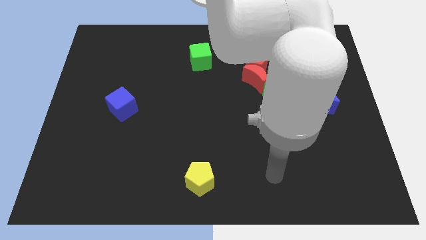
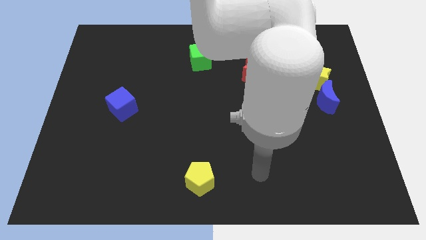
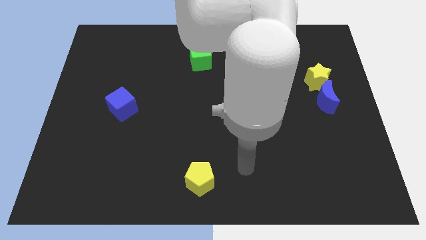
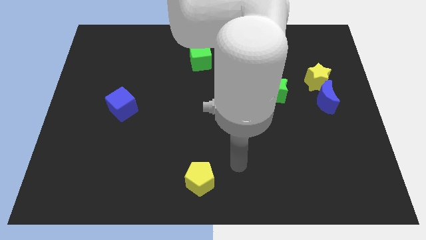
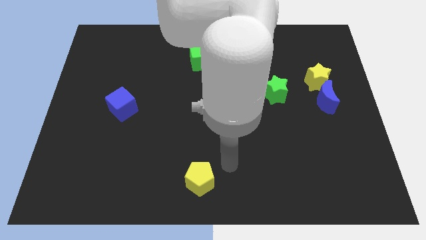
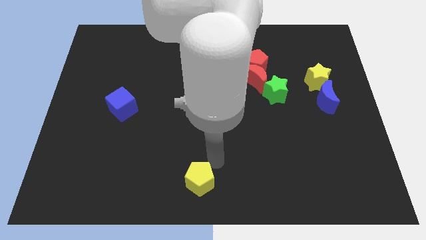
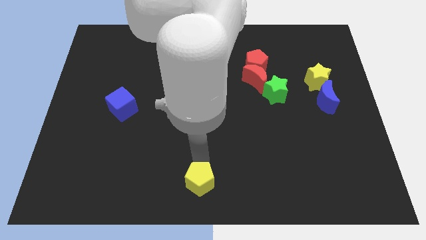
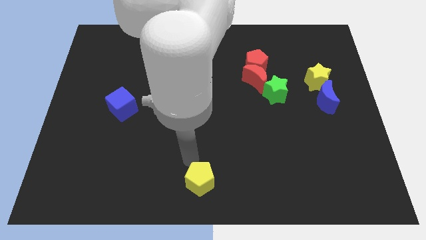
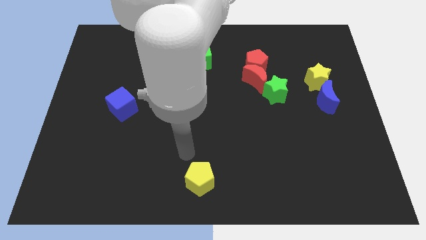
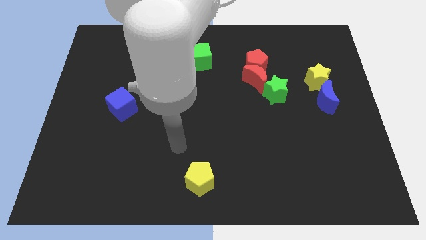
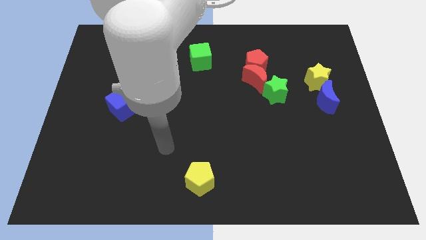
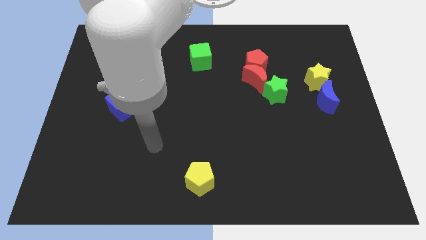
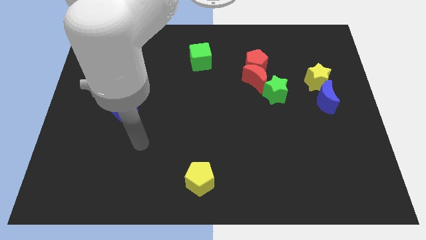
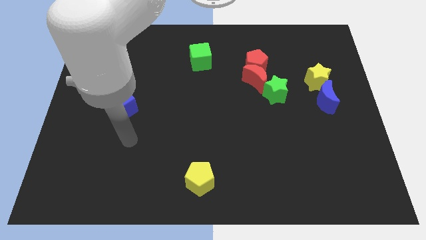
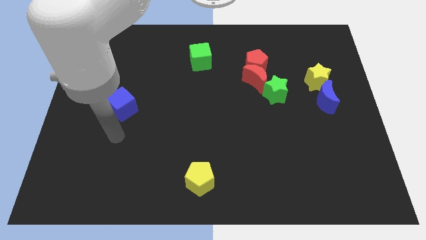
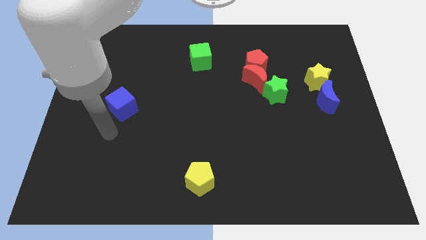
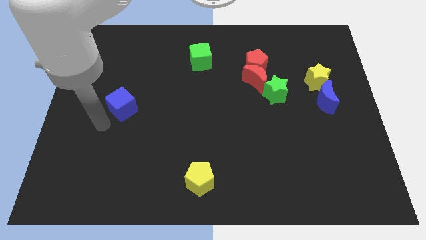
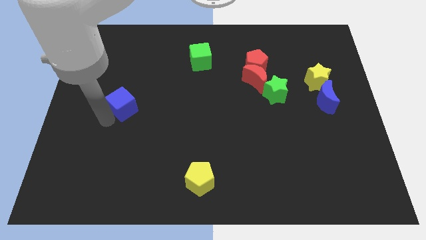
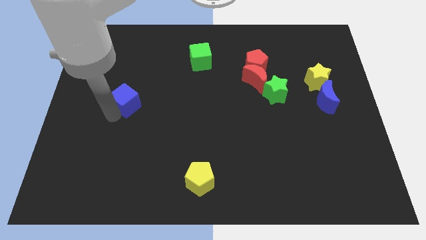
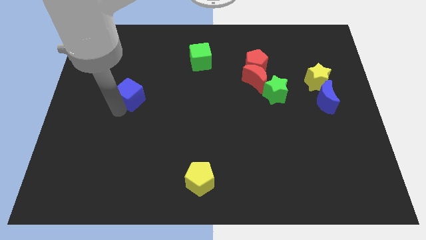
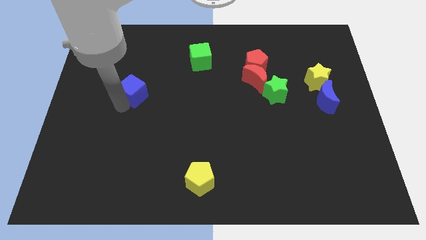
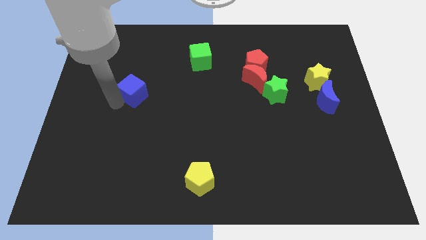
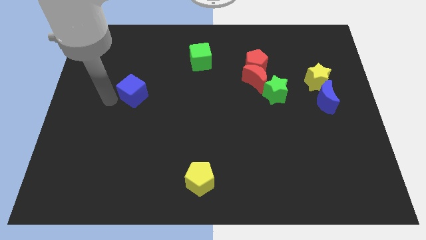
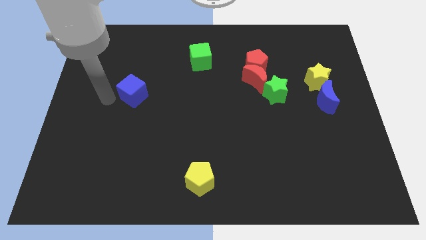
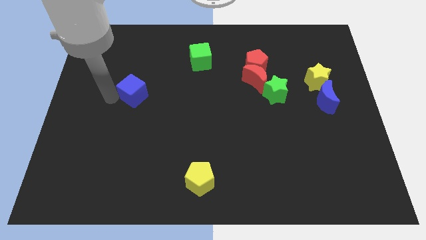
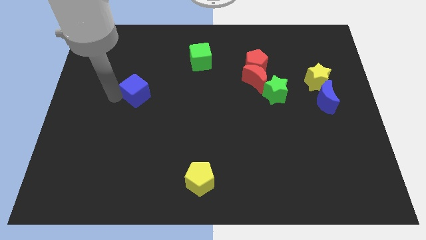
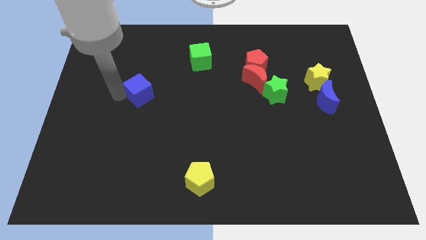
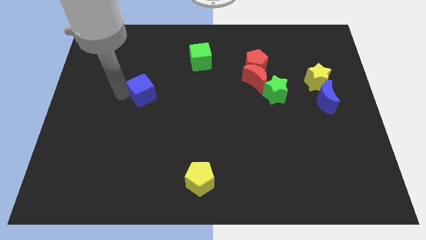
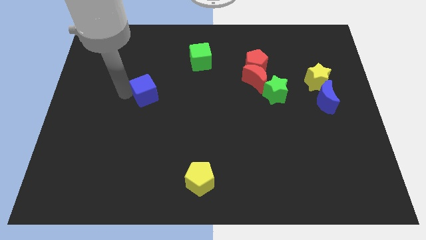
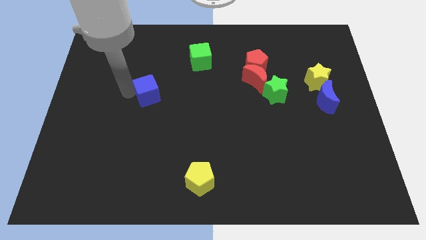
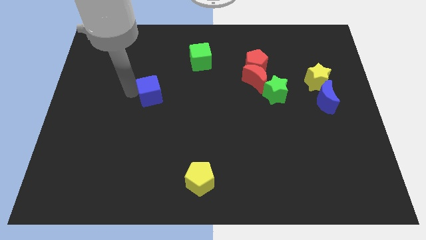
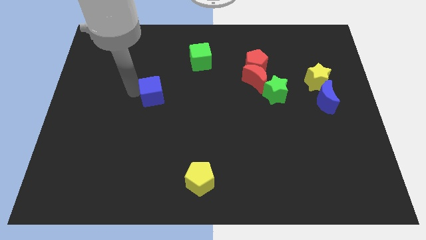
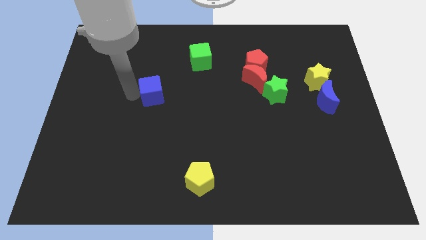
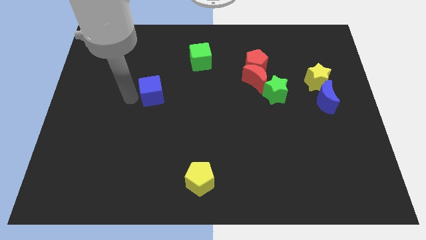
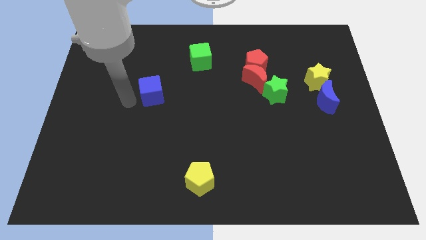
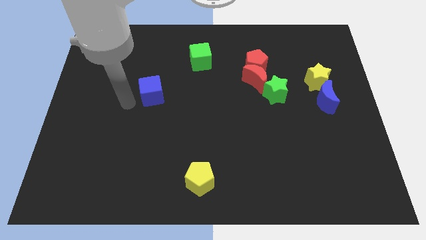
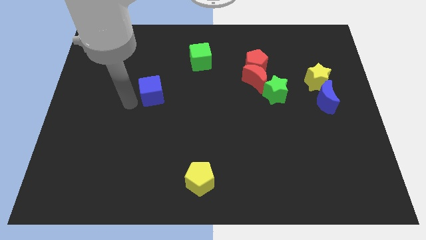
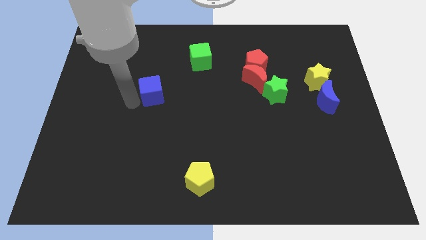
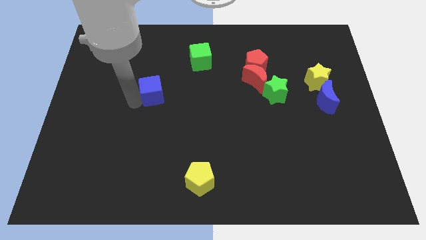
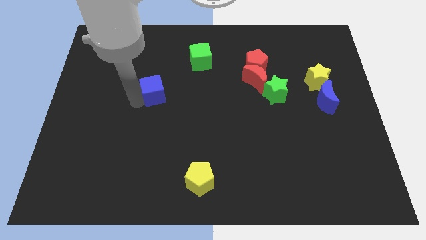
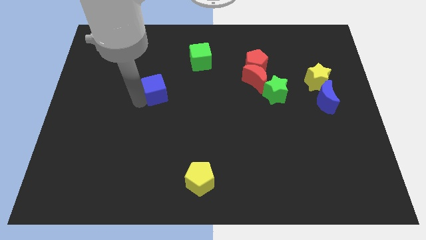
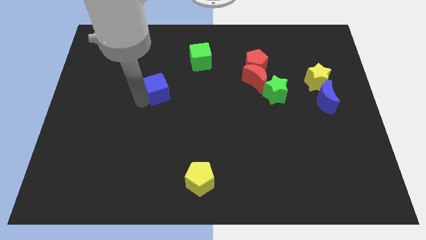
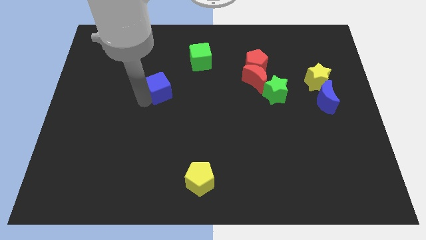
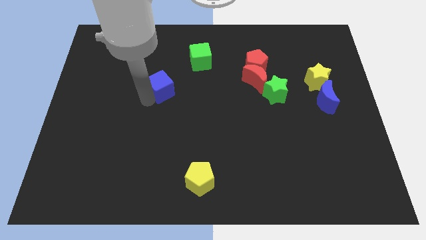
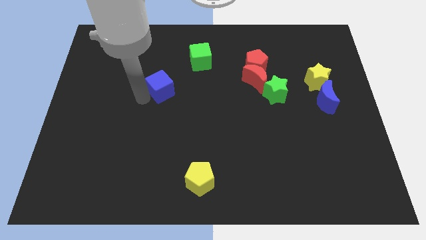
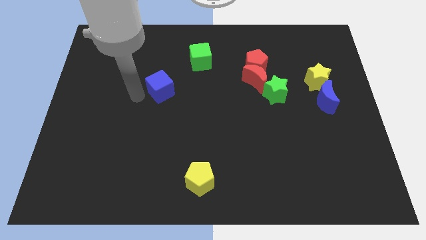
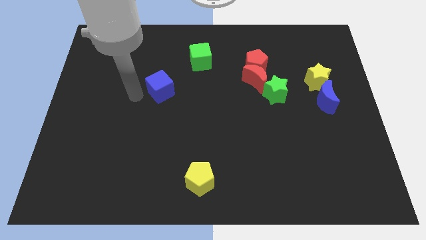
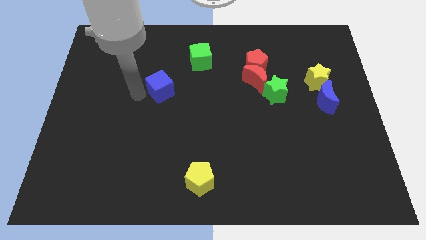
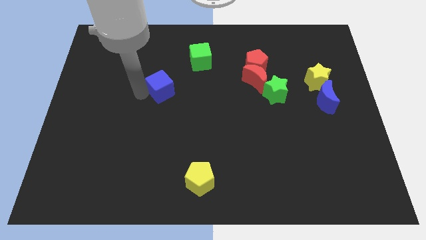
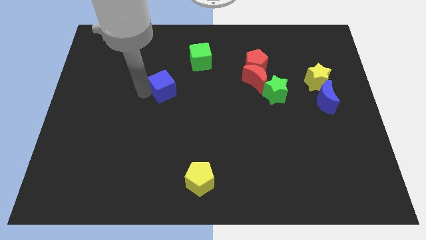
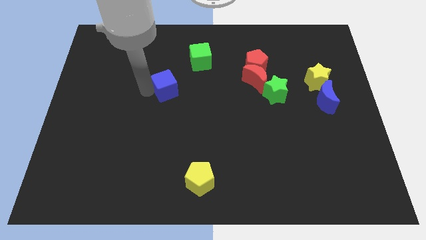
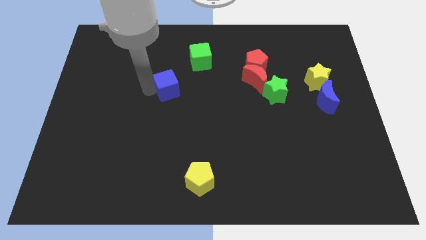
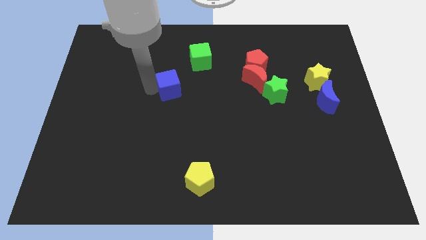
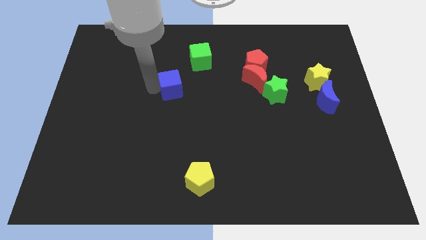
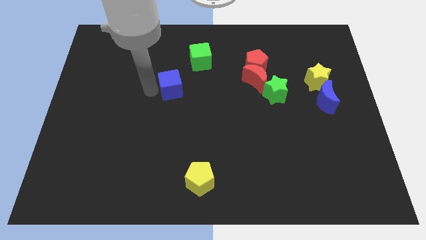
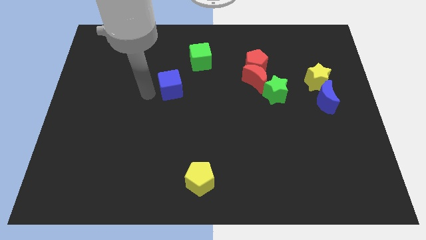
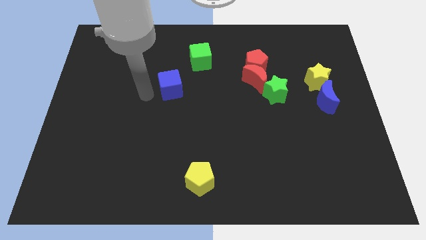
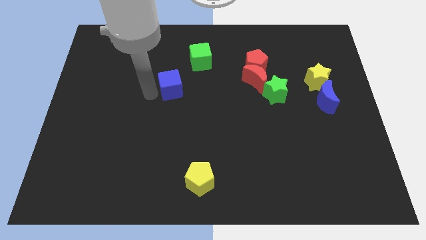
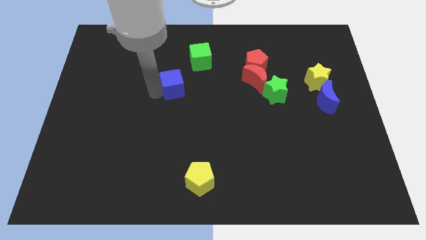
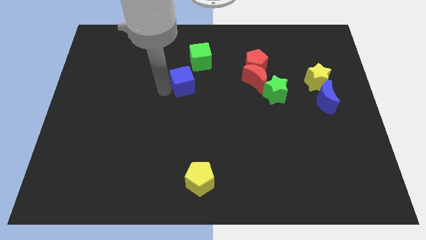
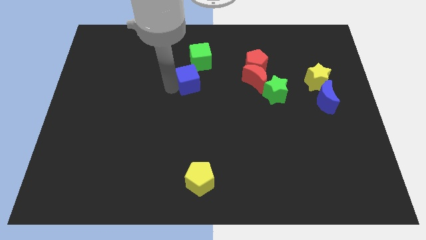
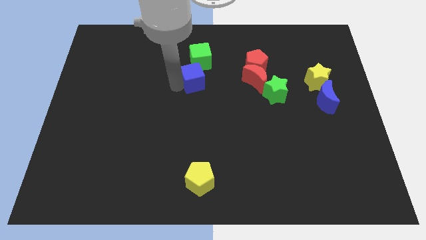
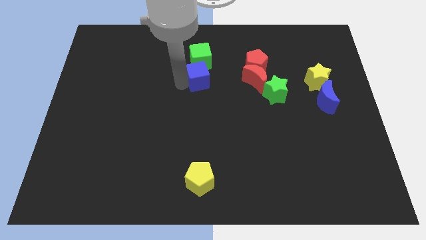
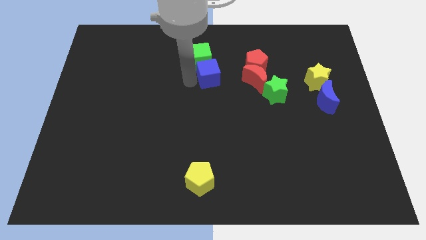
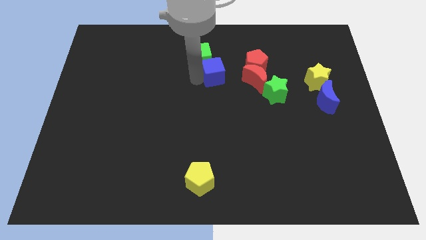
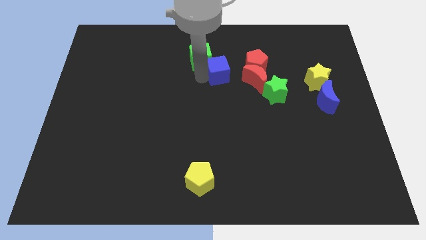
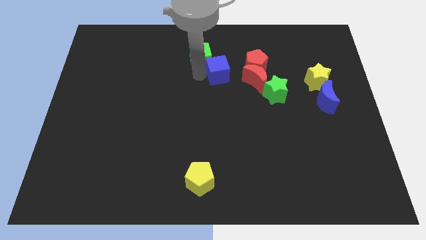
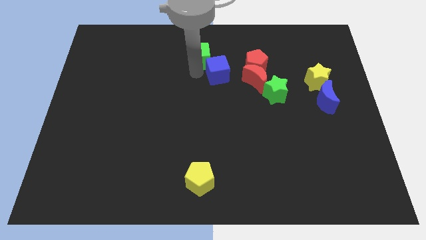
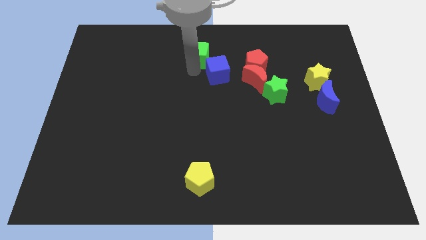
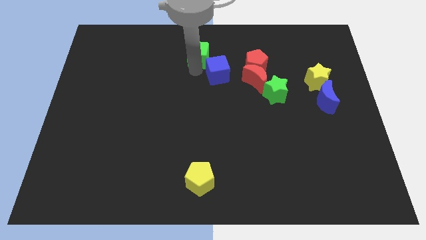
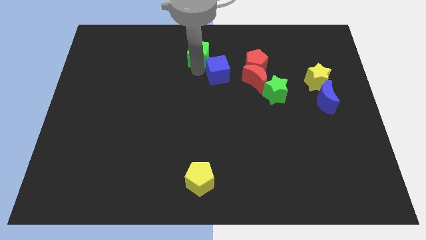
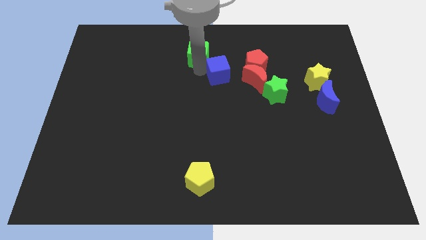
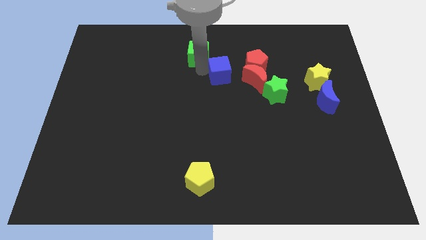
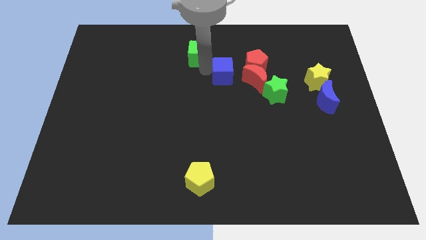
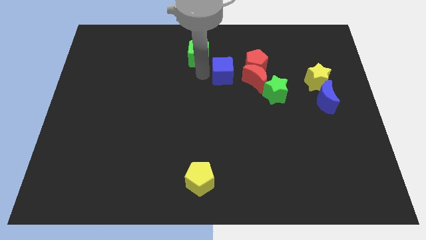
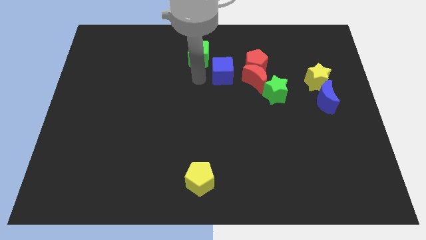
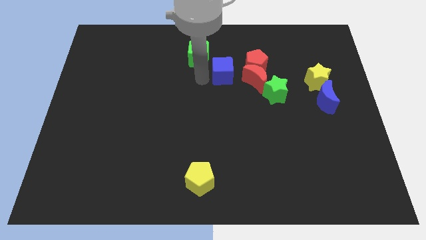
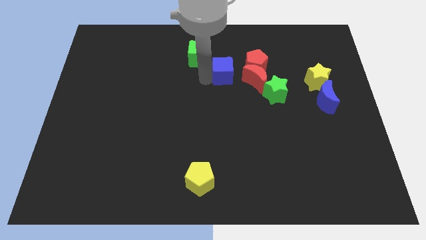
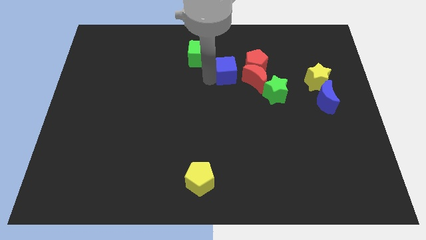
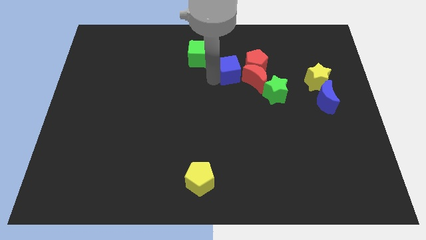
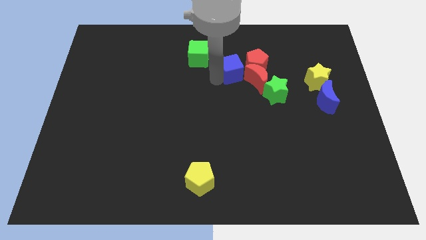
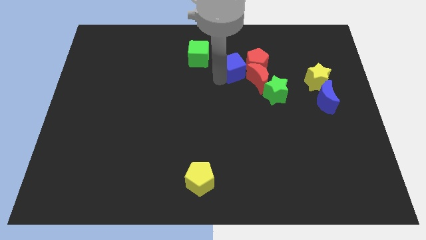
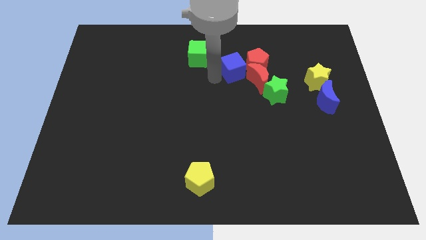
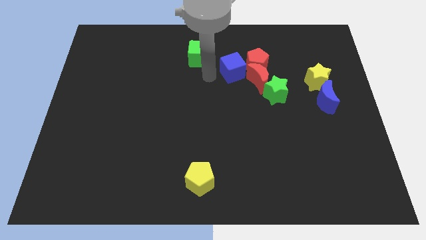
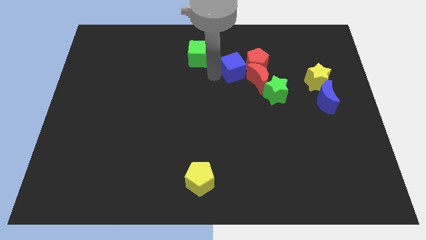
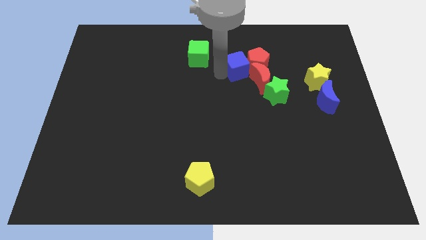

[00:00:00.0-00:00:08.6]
put the blue cube close to the red pentagon
